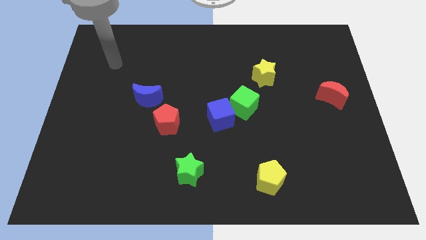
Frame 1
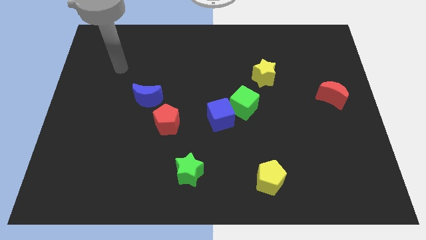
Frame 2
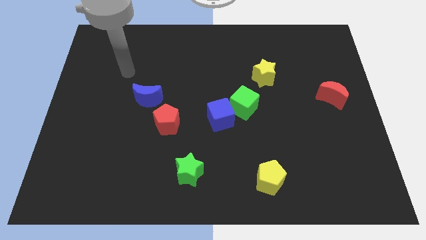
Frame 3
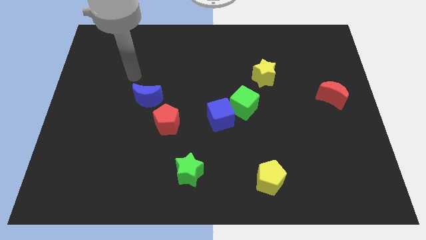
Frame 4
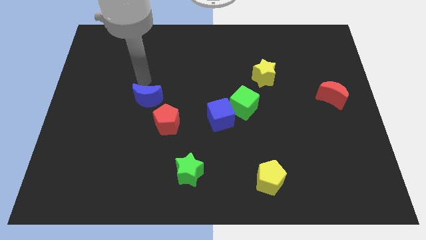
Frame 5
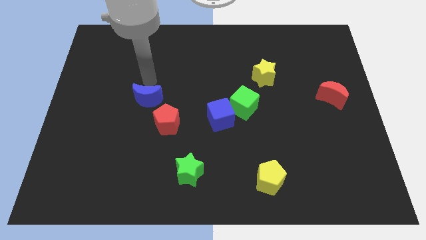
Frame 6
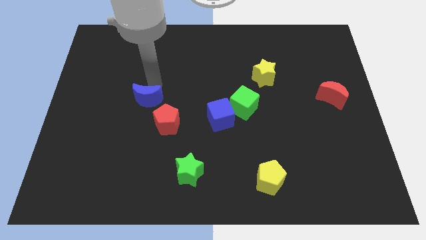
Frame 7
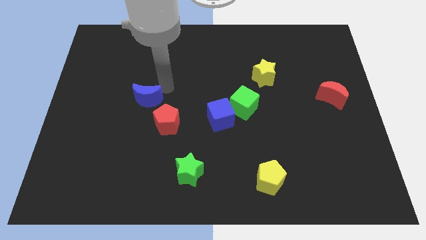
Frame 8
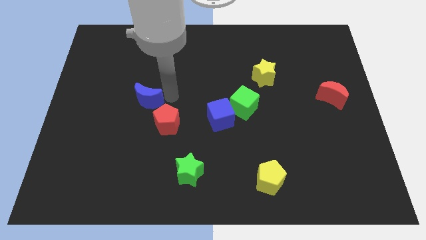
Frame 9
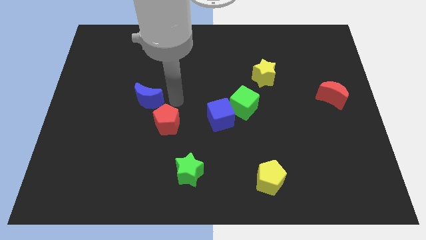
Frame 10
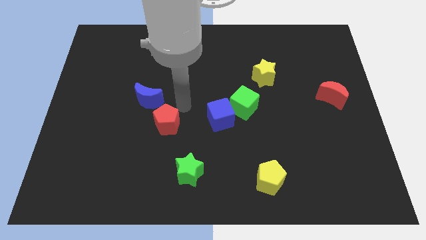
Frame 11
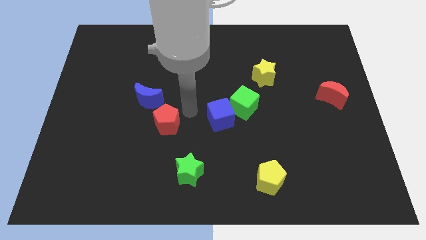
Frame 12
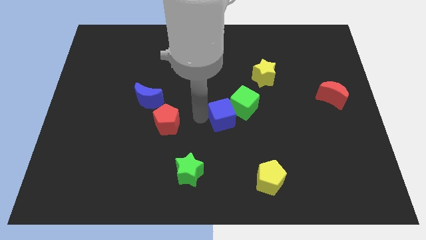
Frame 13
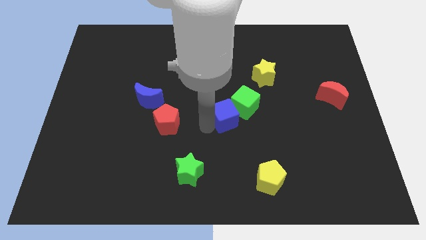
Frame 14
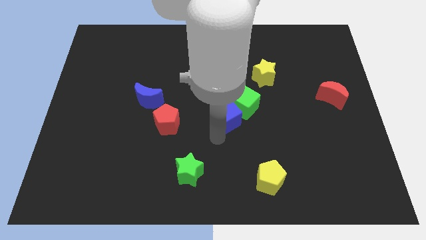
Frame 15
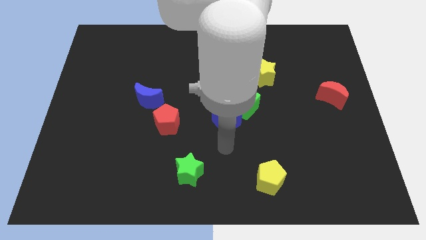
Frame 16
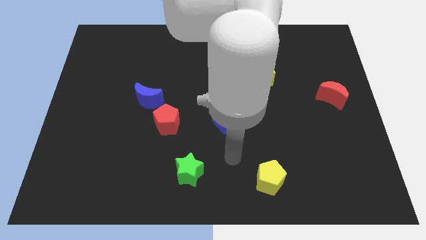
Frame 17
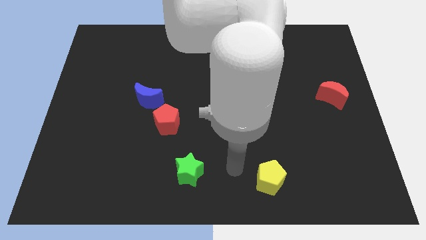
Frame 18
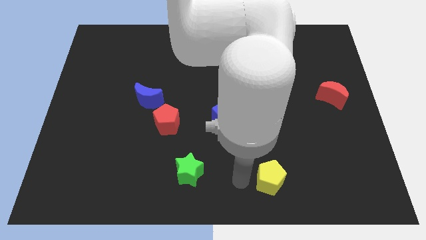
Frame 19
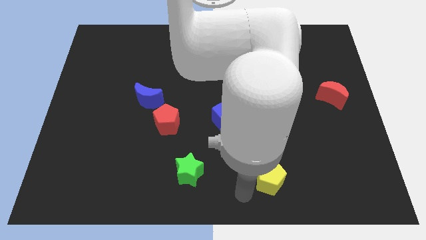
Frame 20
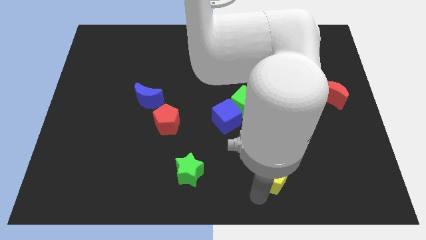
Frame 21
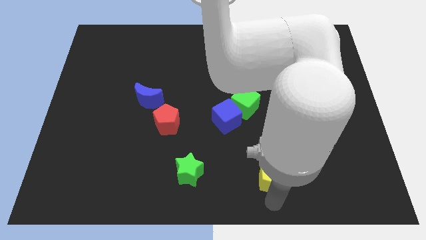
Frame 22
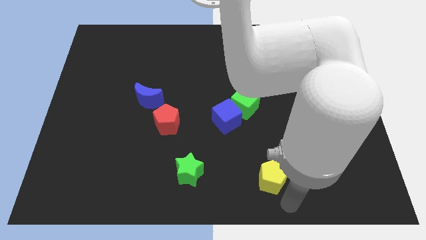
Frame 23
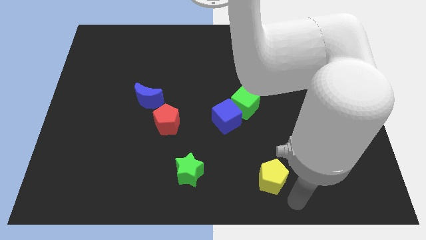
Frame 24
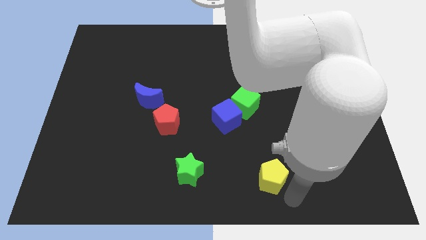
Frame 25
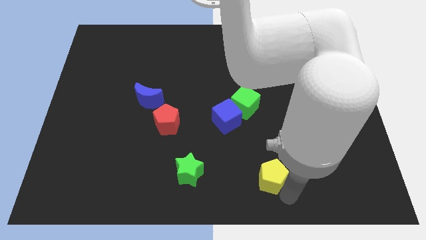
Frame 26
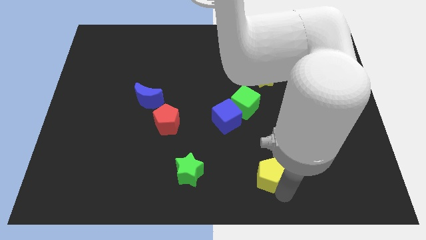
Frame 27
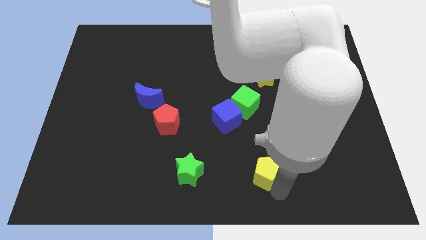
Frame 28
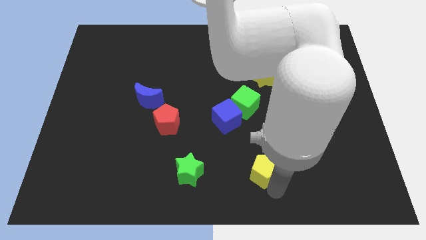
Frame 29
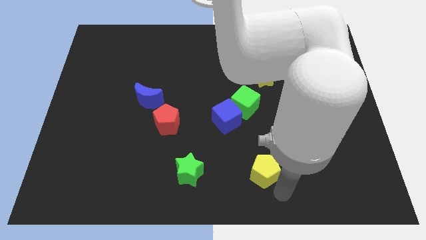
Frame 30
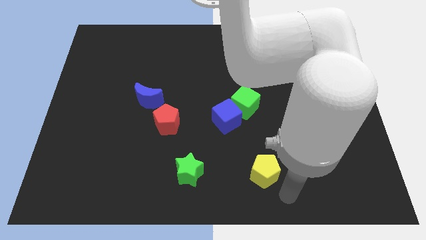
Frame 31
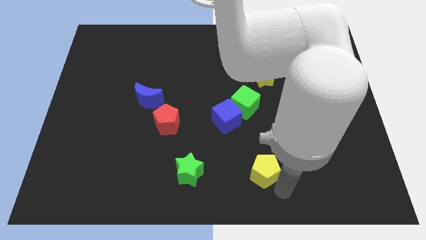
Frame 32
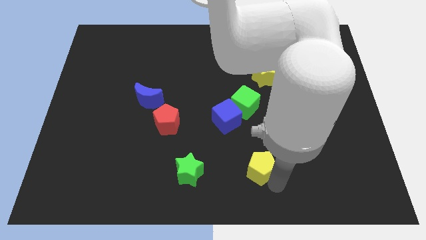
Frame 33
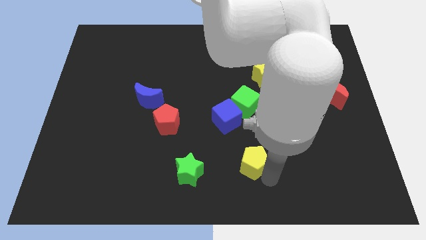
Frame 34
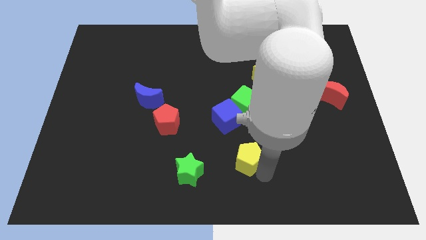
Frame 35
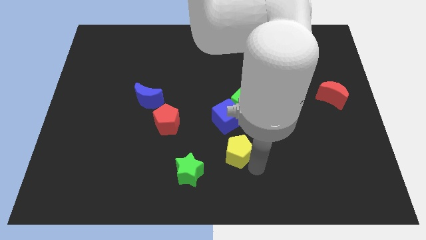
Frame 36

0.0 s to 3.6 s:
slightly move the yellow pentagon upwards and then to the left

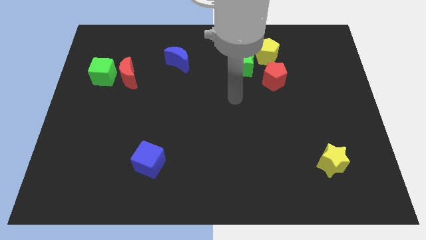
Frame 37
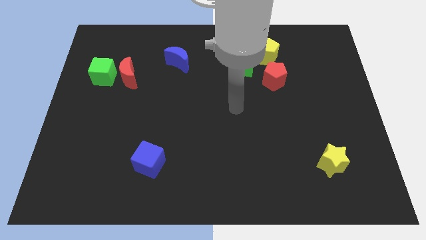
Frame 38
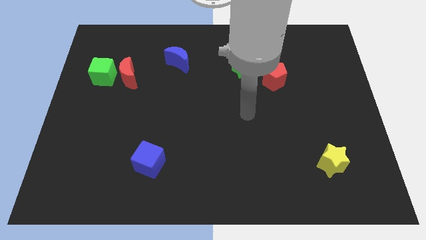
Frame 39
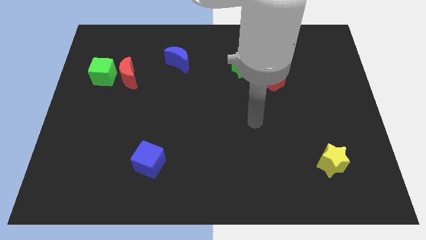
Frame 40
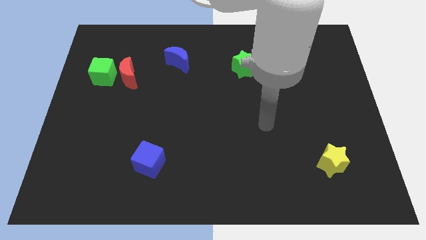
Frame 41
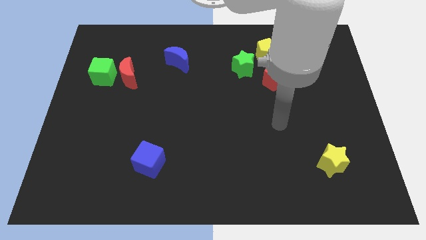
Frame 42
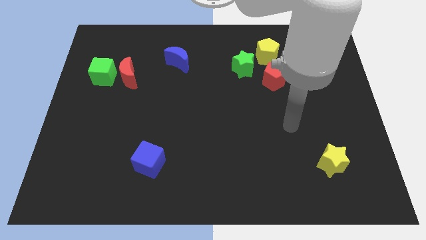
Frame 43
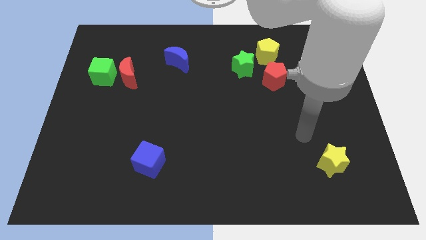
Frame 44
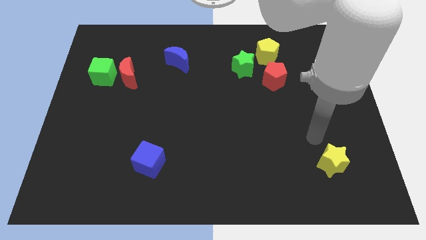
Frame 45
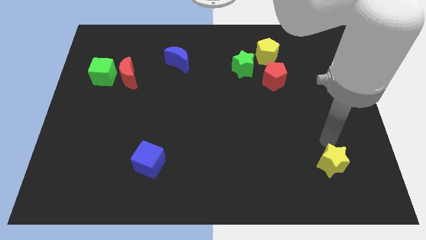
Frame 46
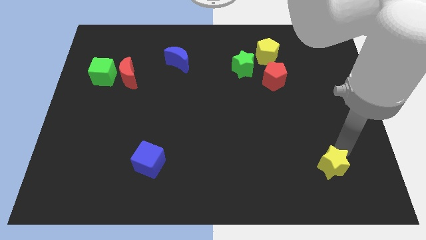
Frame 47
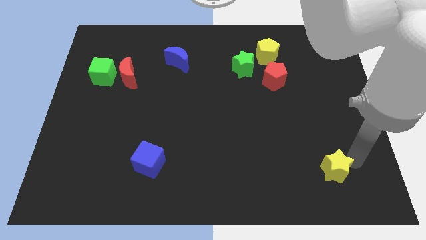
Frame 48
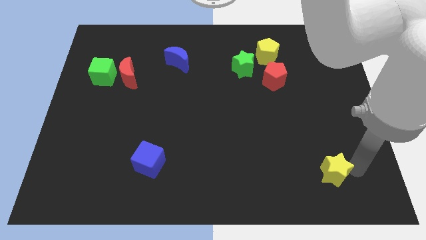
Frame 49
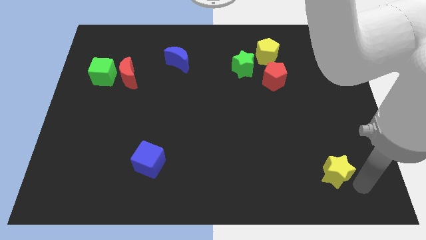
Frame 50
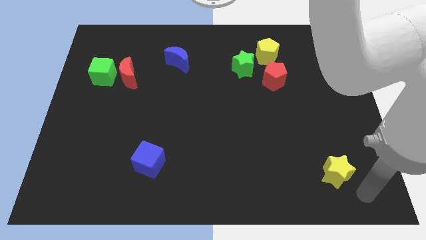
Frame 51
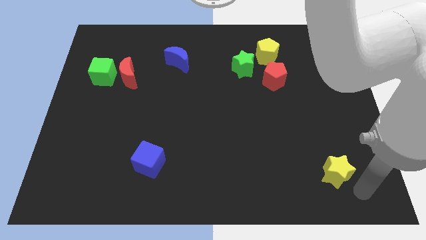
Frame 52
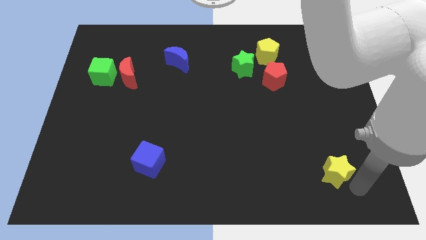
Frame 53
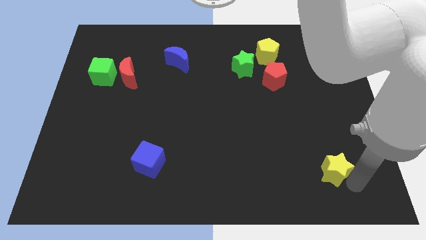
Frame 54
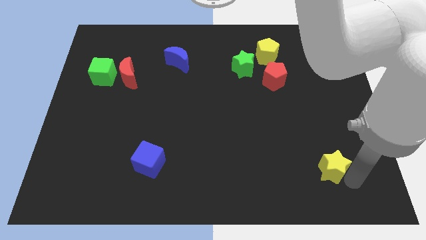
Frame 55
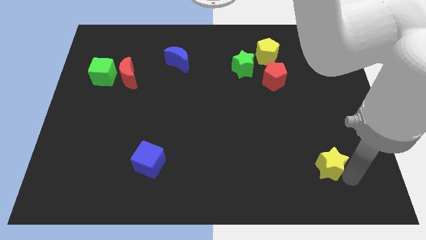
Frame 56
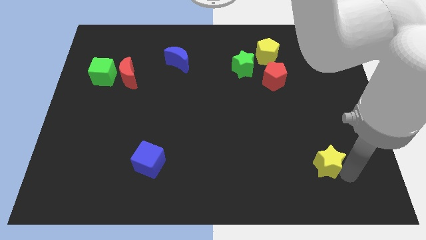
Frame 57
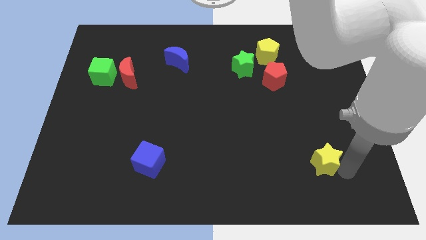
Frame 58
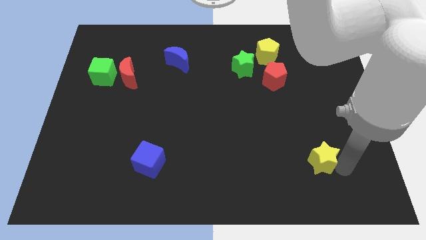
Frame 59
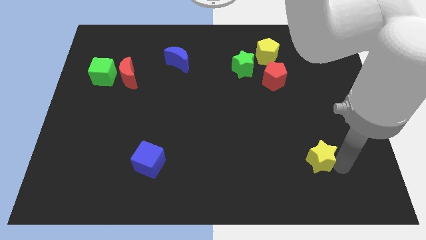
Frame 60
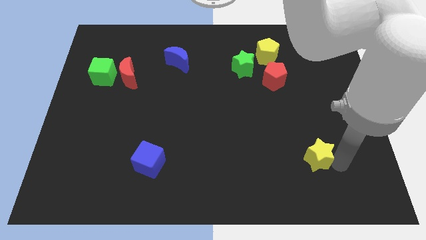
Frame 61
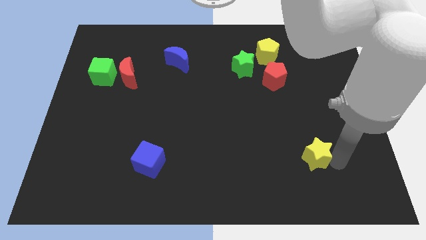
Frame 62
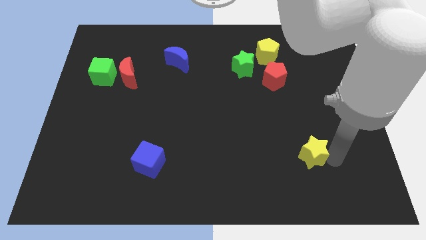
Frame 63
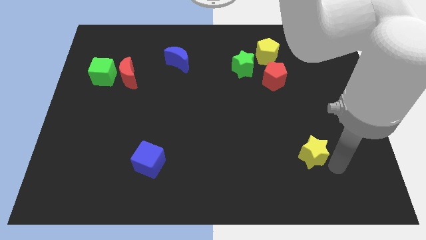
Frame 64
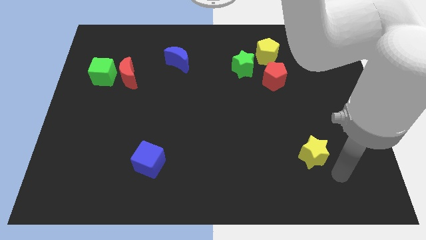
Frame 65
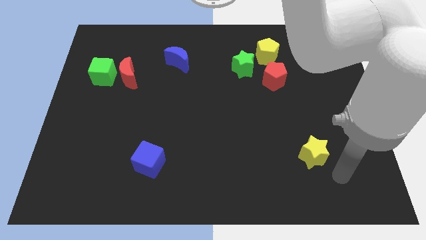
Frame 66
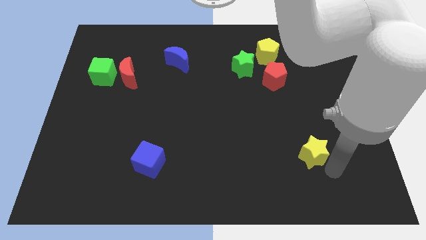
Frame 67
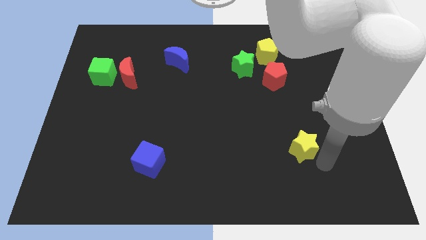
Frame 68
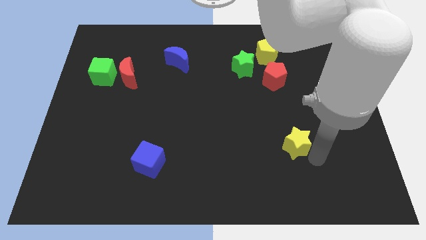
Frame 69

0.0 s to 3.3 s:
move the yellow star upwards and to the left a bit

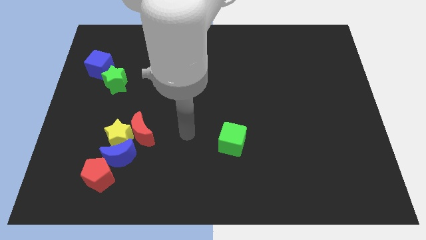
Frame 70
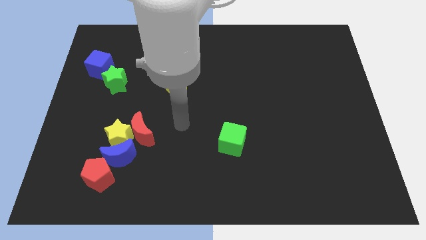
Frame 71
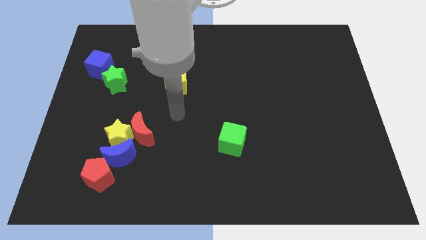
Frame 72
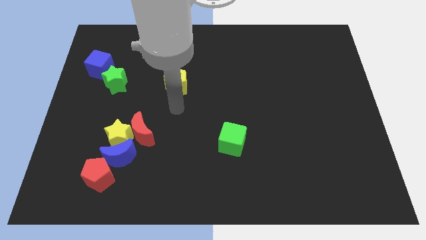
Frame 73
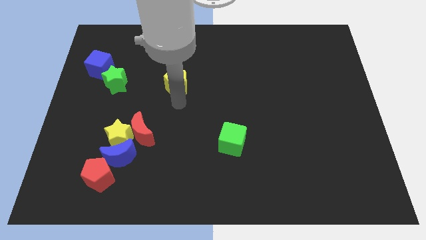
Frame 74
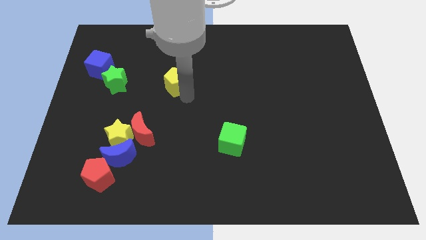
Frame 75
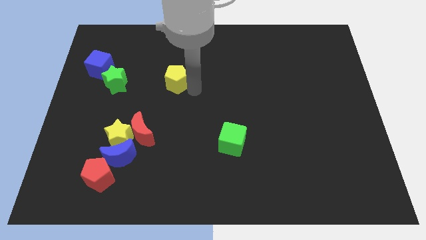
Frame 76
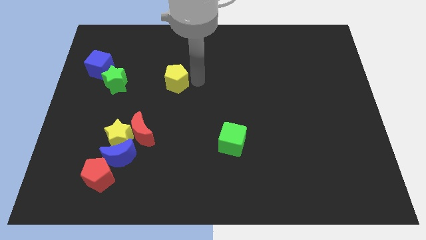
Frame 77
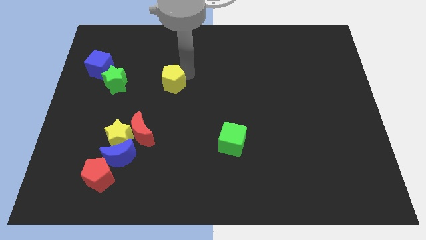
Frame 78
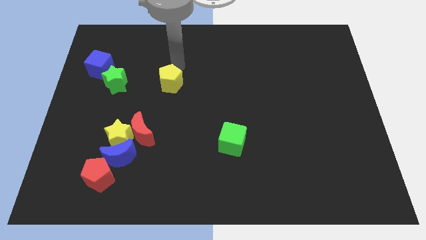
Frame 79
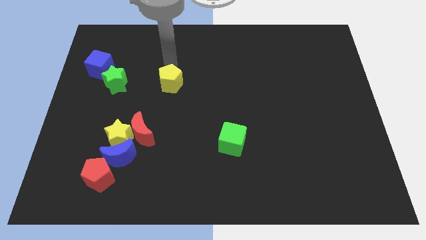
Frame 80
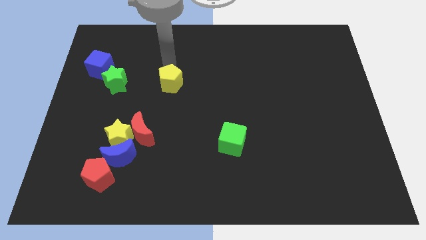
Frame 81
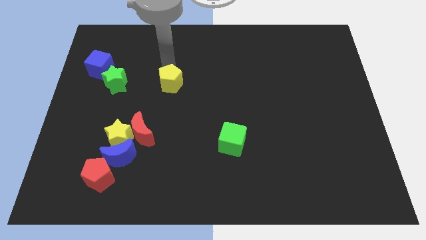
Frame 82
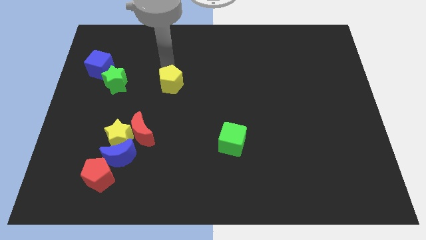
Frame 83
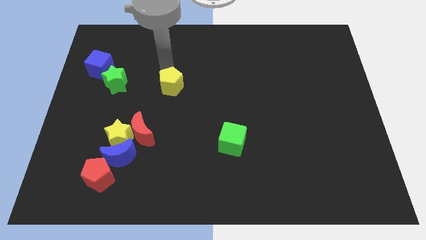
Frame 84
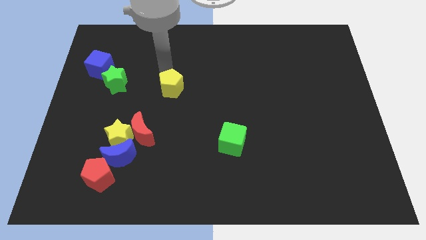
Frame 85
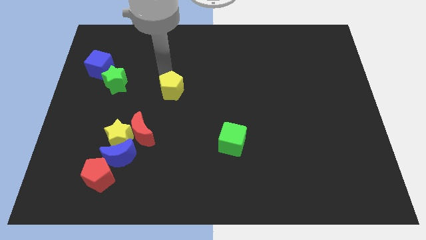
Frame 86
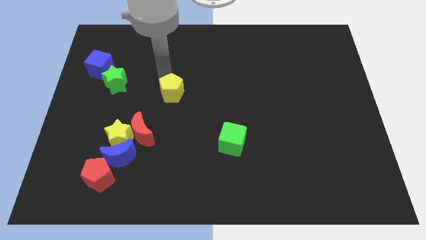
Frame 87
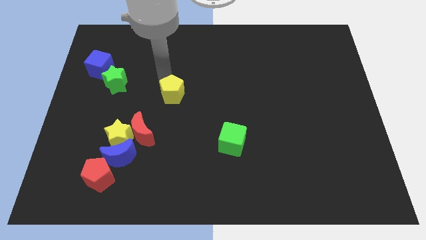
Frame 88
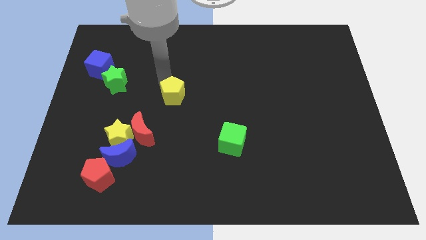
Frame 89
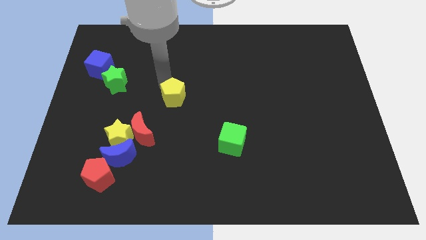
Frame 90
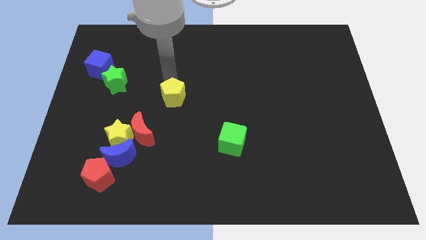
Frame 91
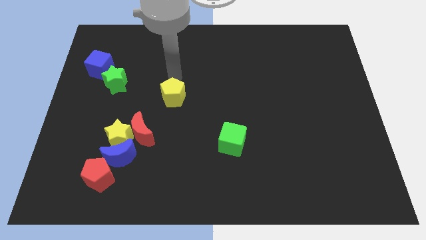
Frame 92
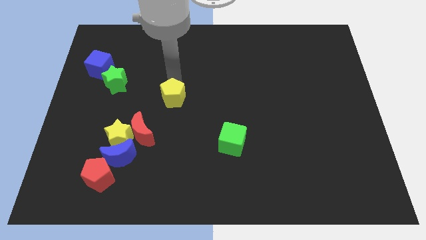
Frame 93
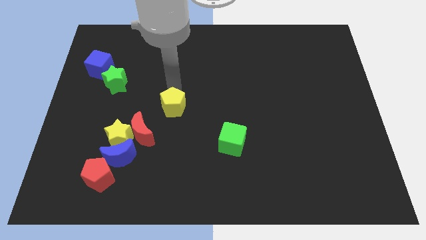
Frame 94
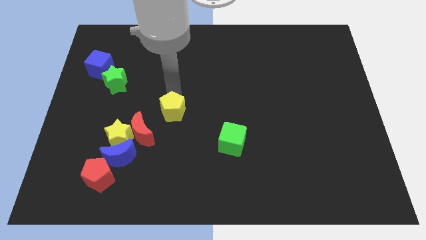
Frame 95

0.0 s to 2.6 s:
move the yellow pentagon down a little
